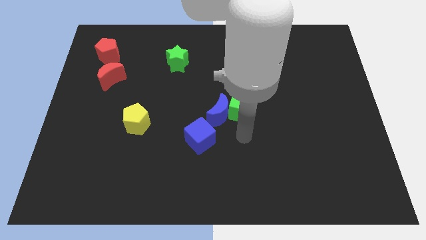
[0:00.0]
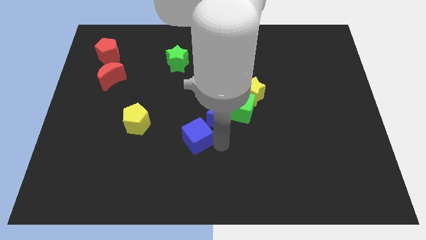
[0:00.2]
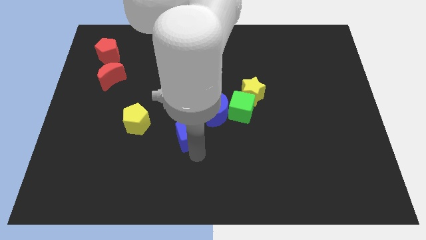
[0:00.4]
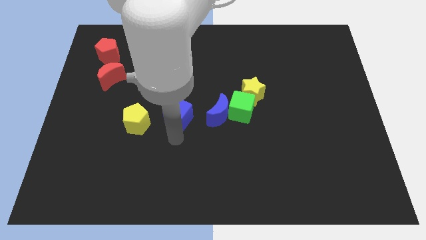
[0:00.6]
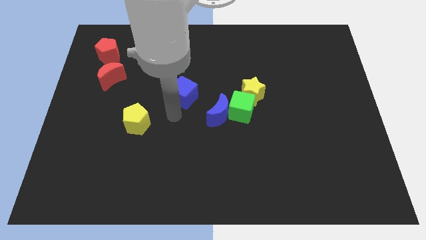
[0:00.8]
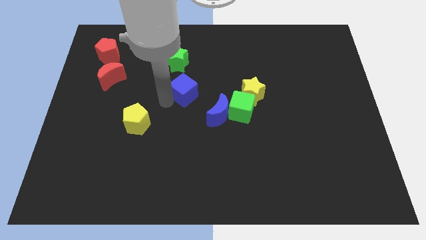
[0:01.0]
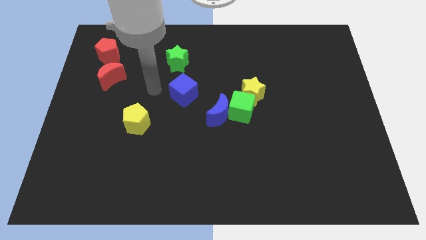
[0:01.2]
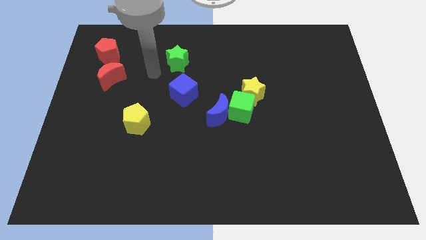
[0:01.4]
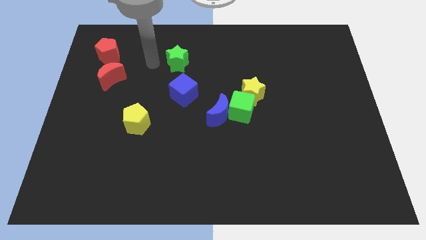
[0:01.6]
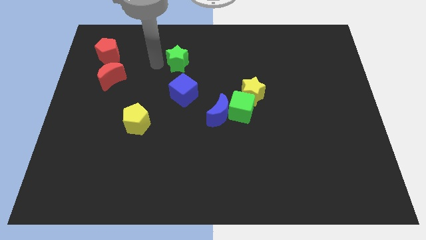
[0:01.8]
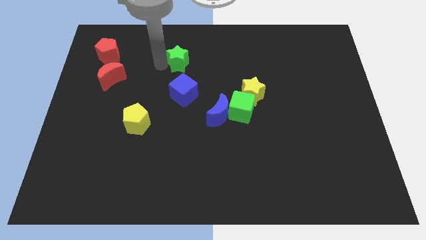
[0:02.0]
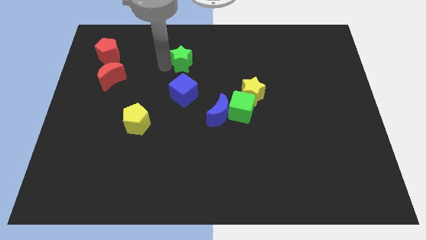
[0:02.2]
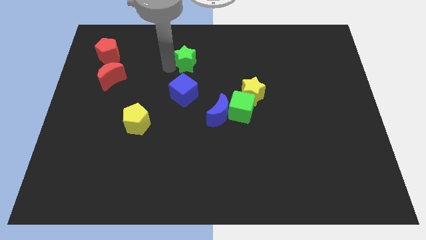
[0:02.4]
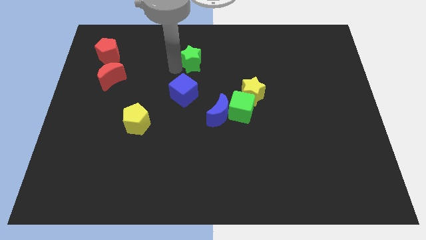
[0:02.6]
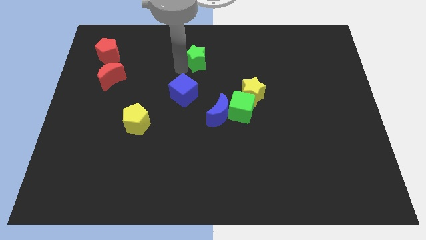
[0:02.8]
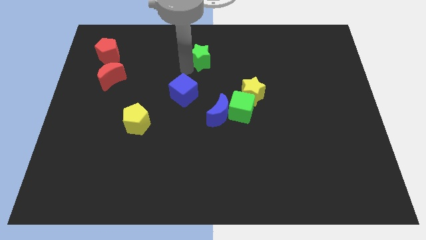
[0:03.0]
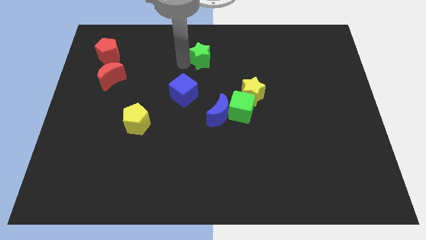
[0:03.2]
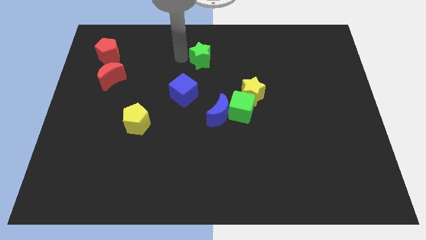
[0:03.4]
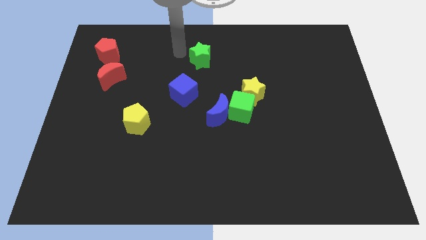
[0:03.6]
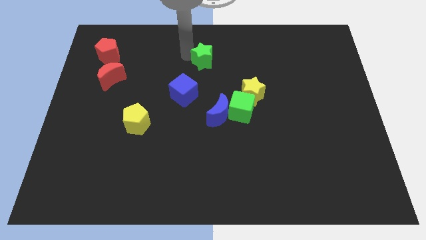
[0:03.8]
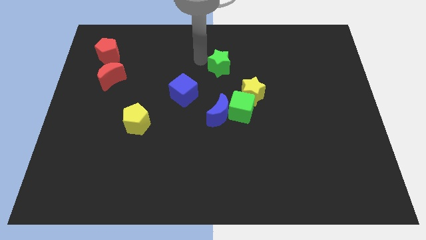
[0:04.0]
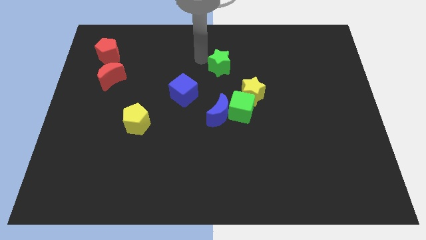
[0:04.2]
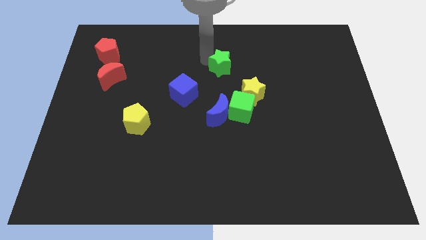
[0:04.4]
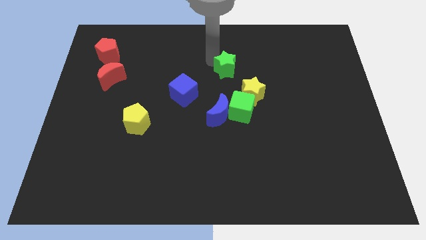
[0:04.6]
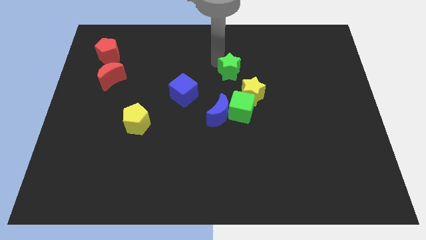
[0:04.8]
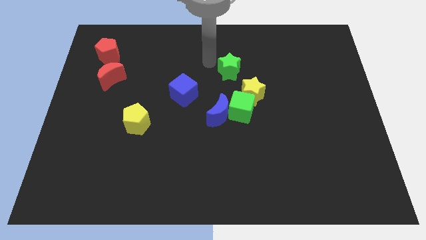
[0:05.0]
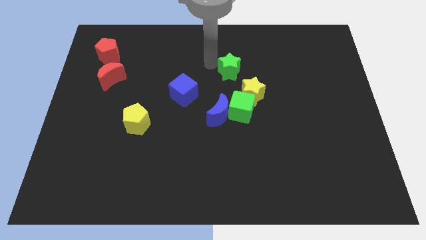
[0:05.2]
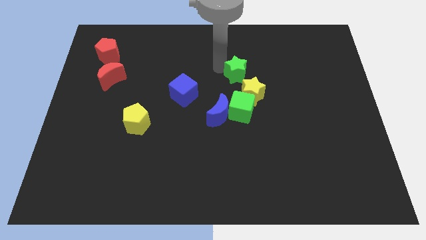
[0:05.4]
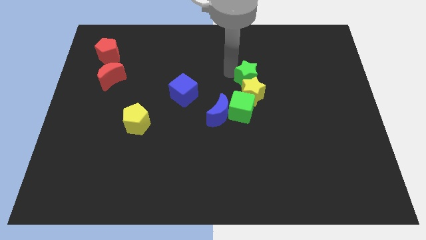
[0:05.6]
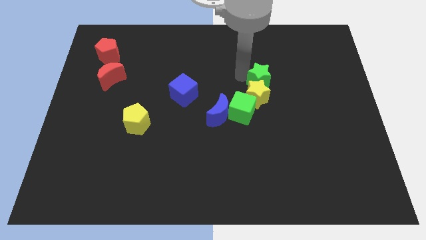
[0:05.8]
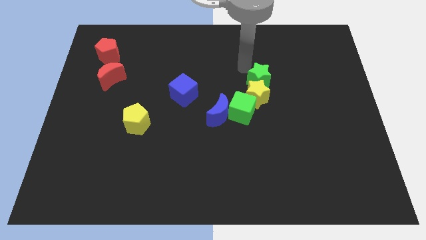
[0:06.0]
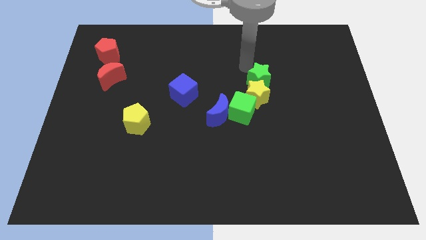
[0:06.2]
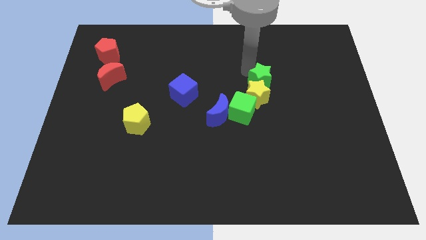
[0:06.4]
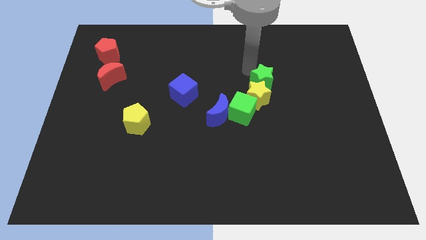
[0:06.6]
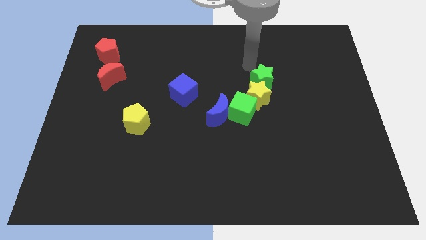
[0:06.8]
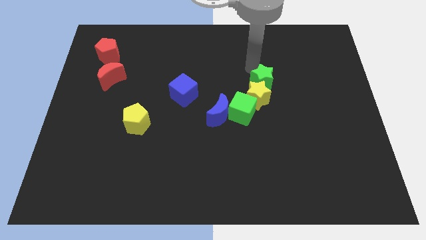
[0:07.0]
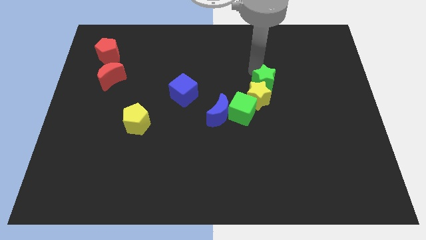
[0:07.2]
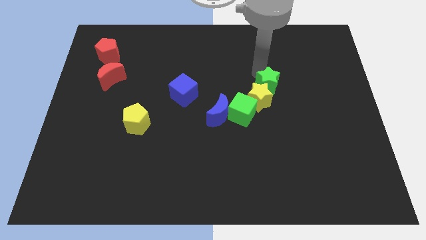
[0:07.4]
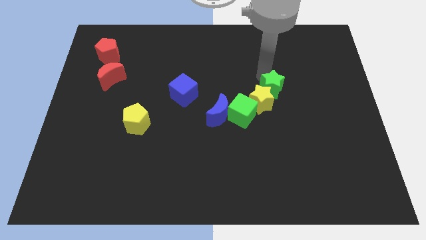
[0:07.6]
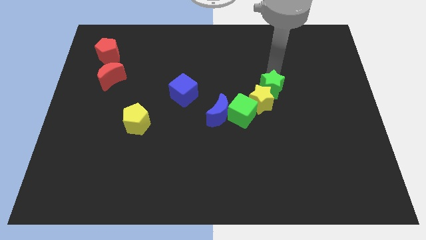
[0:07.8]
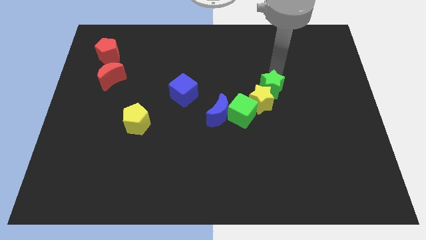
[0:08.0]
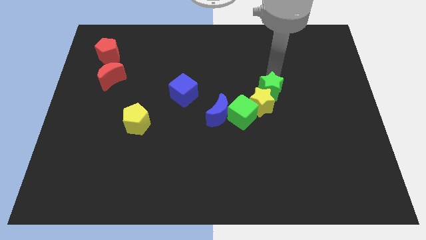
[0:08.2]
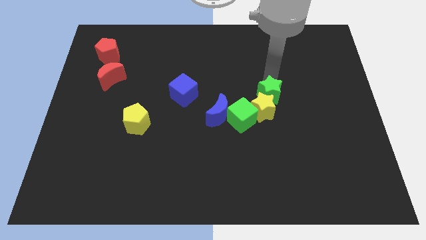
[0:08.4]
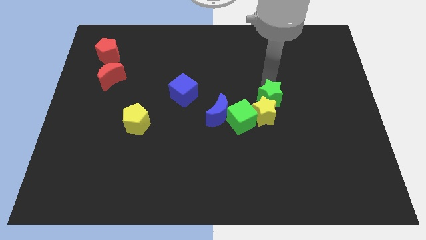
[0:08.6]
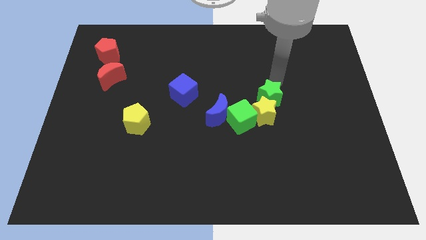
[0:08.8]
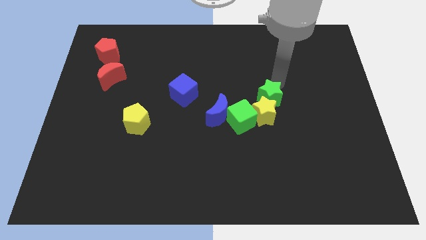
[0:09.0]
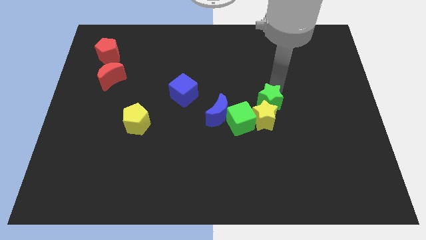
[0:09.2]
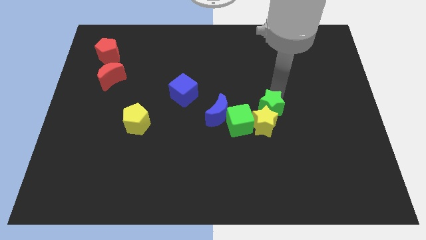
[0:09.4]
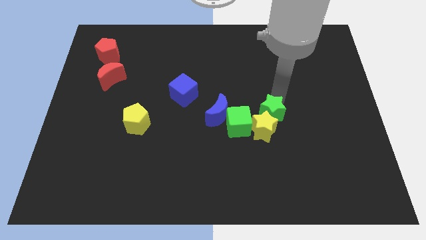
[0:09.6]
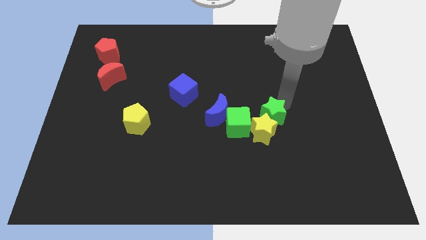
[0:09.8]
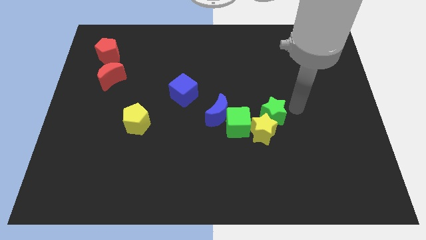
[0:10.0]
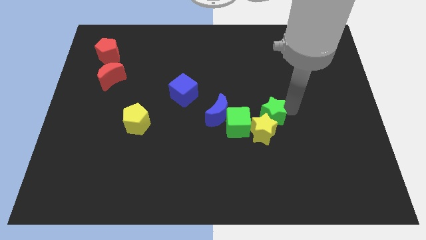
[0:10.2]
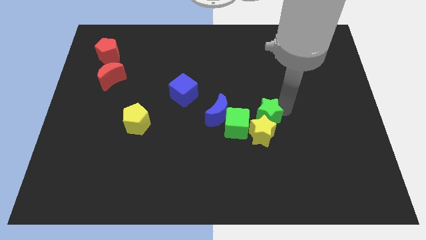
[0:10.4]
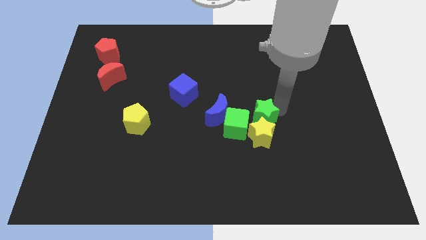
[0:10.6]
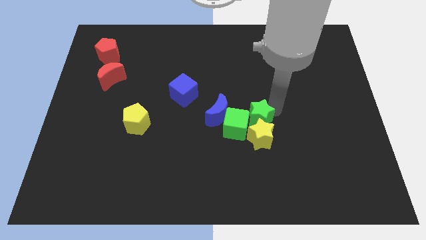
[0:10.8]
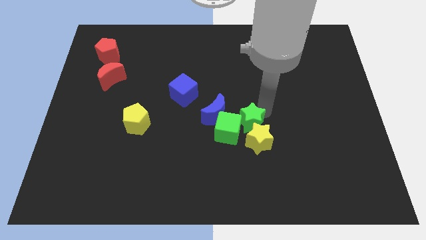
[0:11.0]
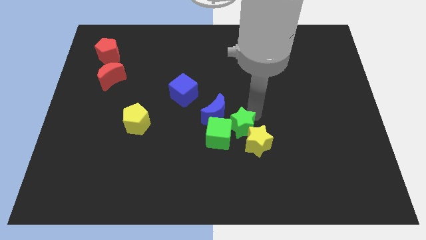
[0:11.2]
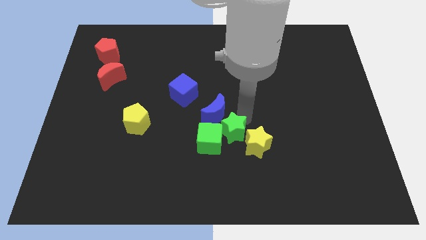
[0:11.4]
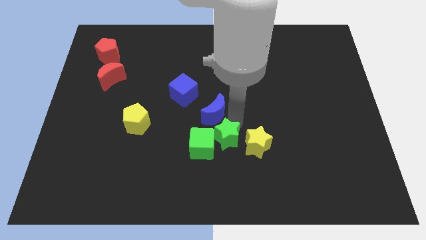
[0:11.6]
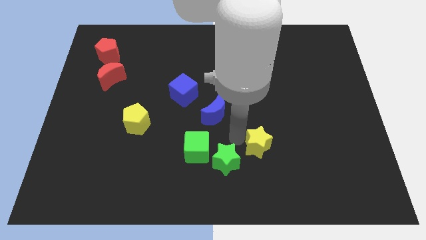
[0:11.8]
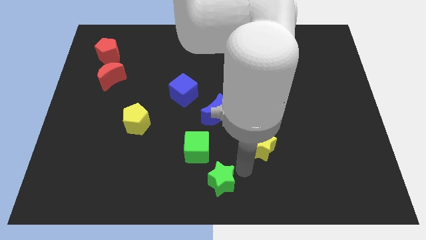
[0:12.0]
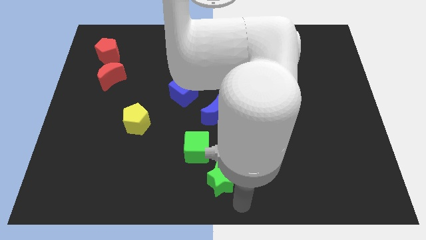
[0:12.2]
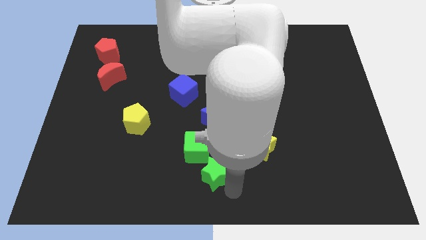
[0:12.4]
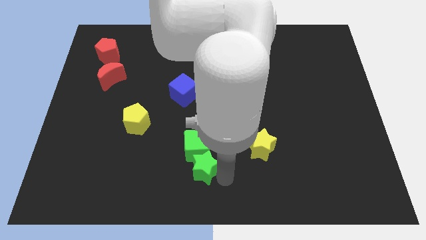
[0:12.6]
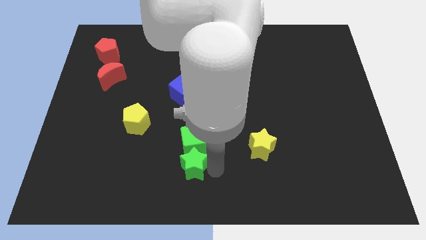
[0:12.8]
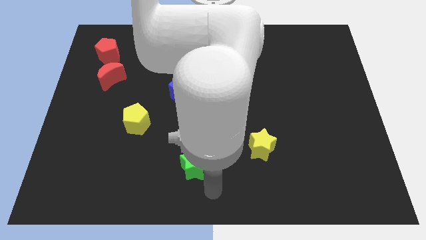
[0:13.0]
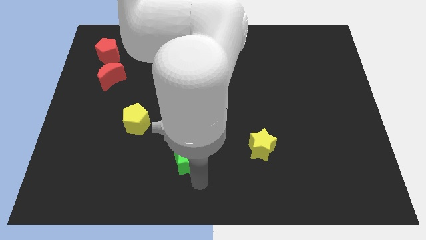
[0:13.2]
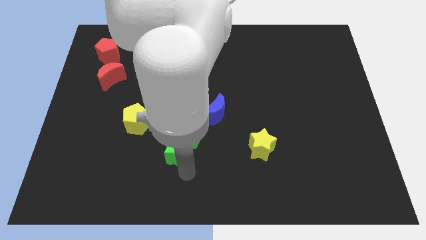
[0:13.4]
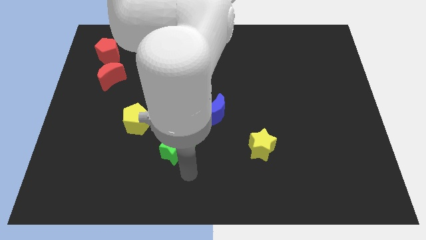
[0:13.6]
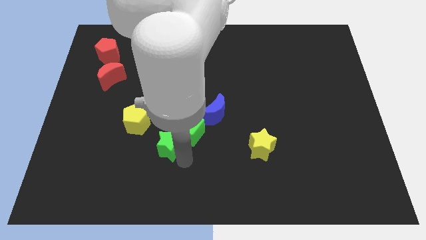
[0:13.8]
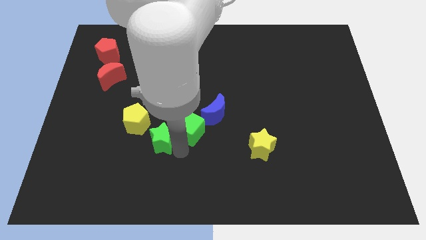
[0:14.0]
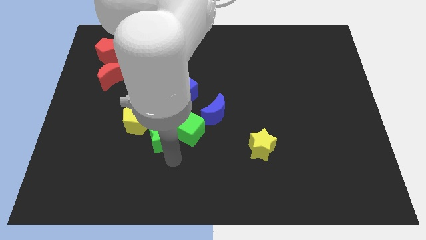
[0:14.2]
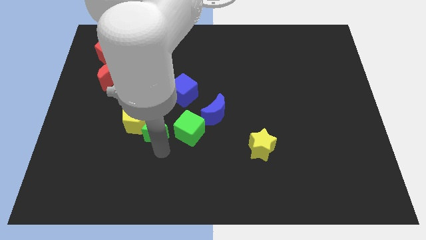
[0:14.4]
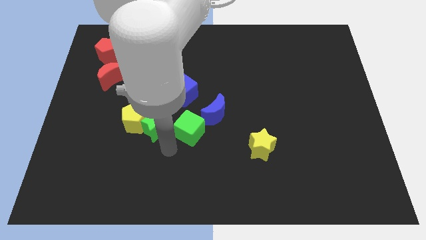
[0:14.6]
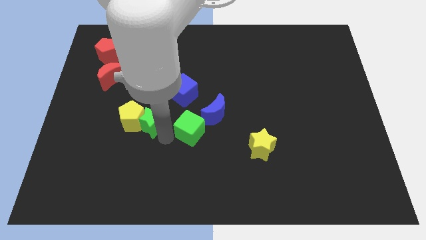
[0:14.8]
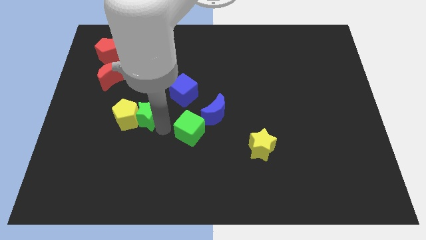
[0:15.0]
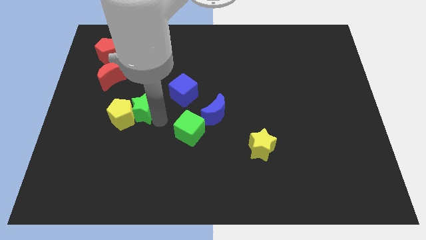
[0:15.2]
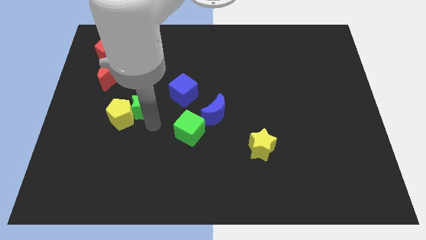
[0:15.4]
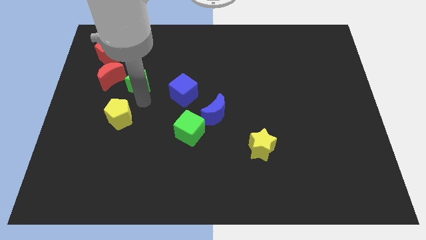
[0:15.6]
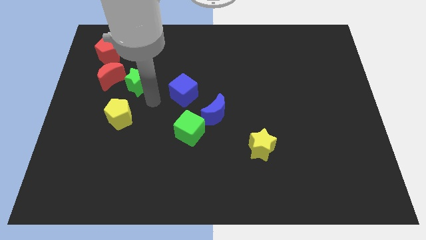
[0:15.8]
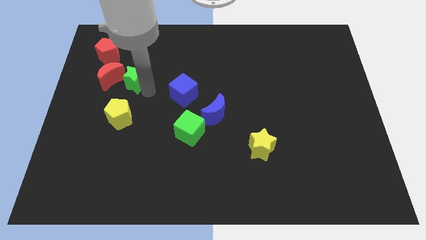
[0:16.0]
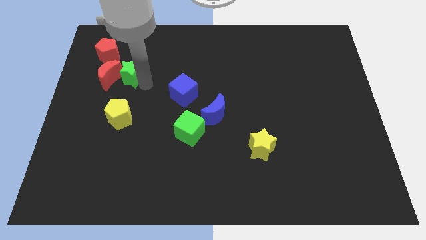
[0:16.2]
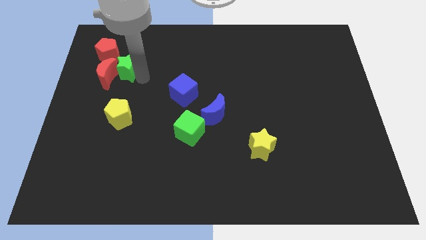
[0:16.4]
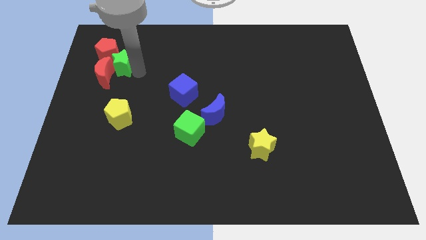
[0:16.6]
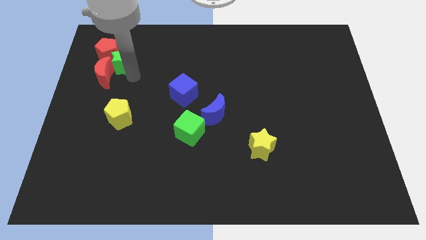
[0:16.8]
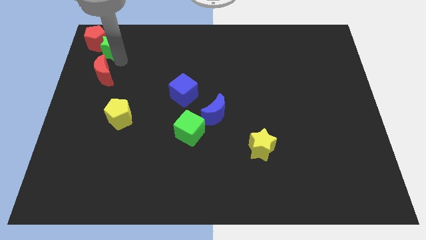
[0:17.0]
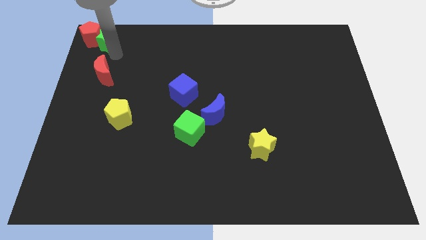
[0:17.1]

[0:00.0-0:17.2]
put the green star to the upper left corner
